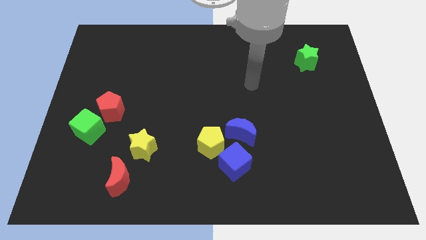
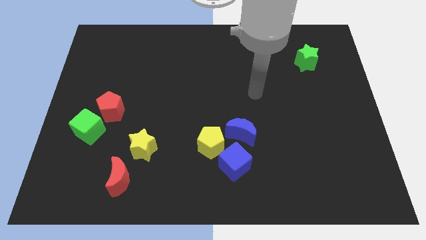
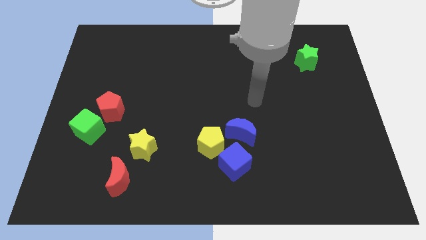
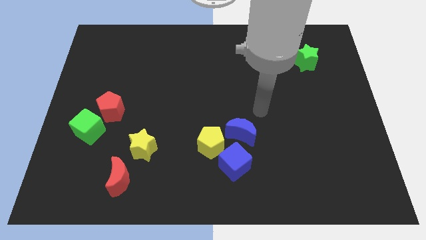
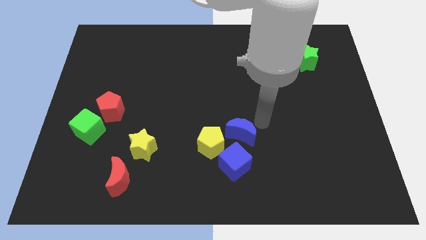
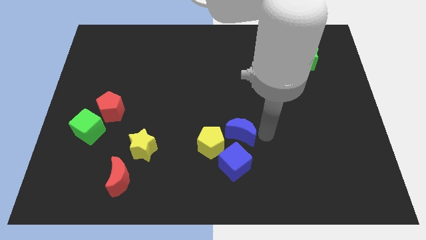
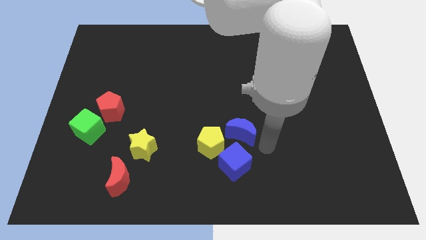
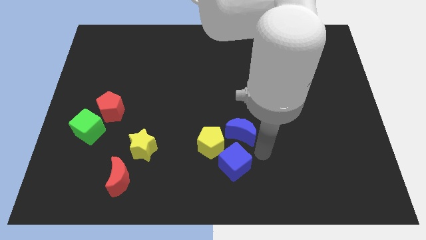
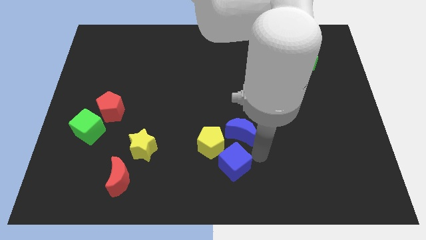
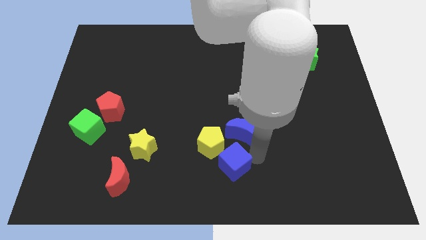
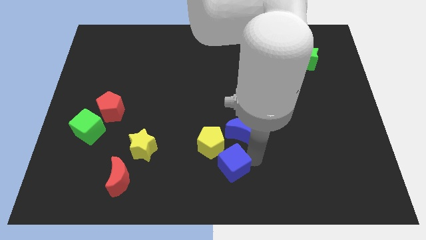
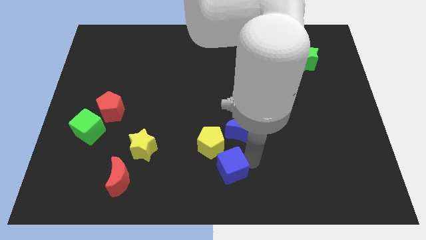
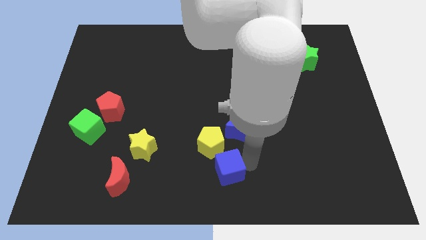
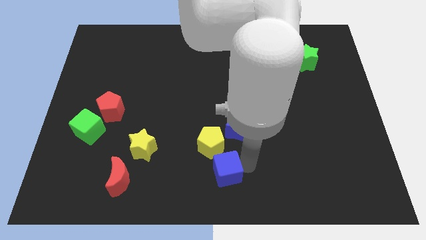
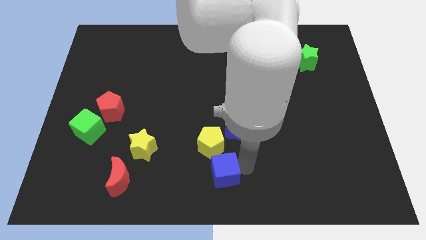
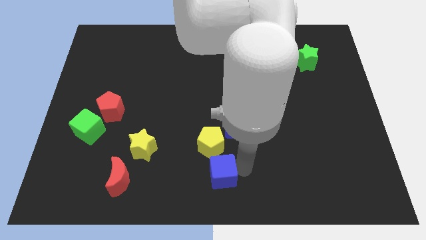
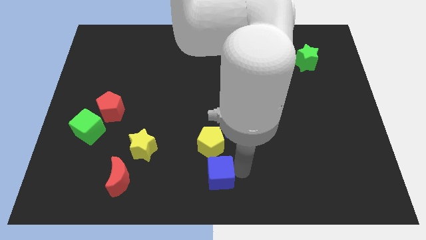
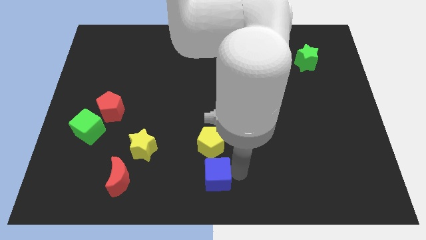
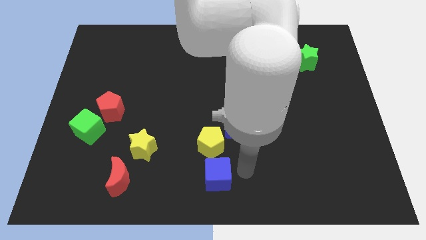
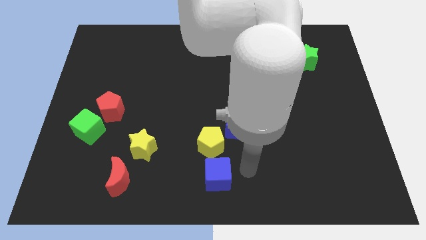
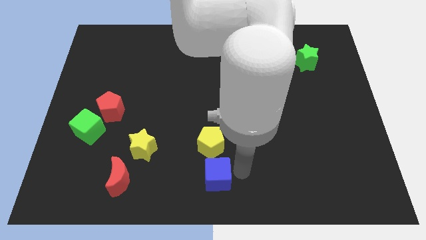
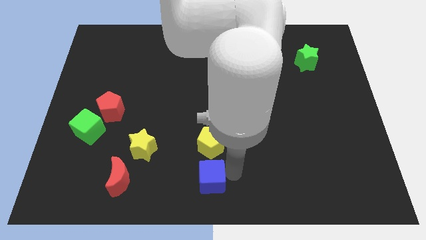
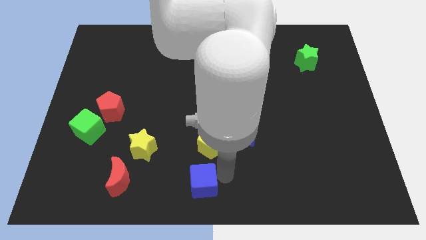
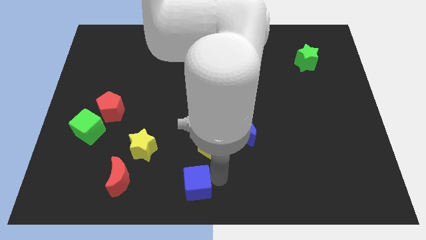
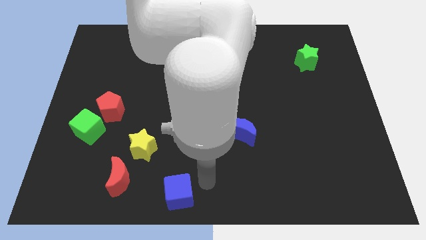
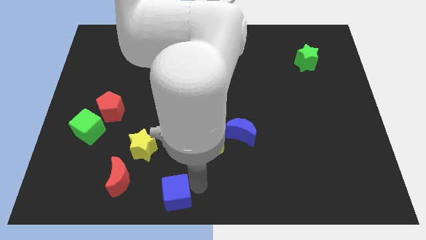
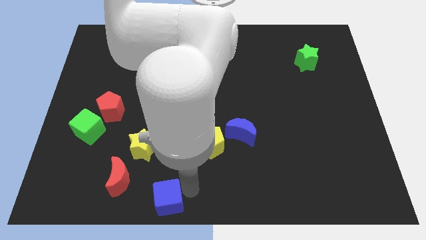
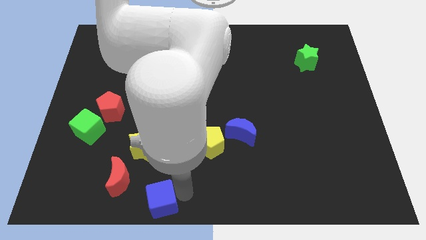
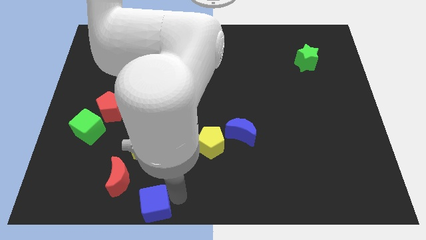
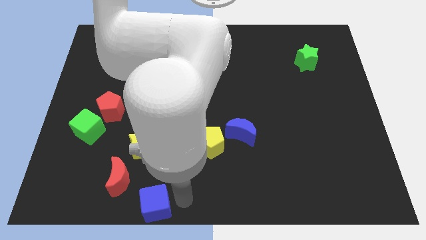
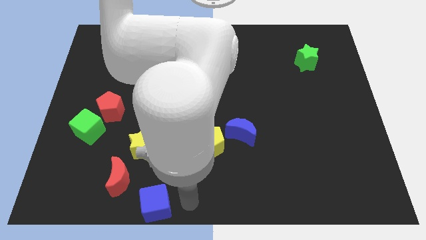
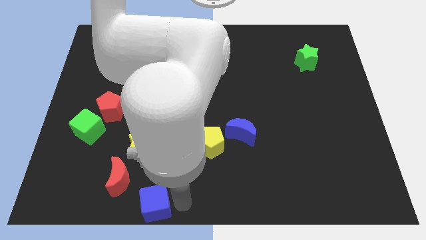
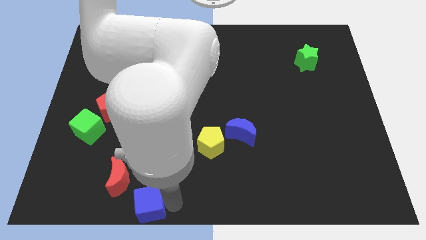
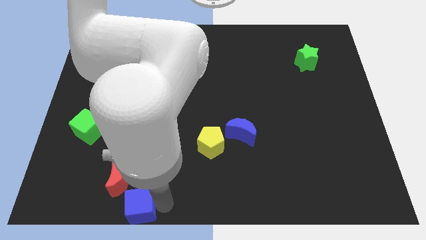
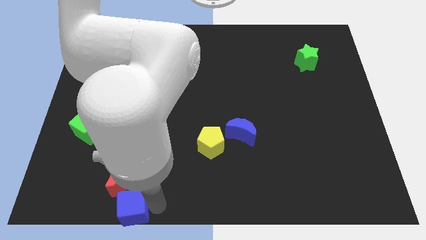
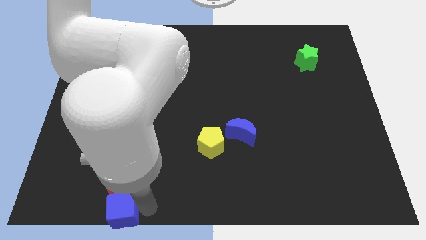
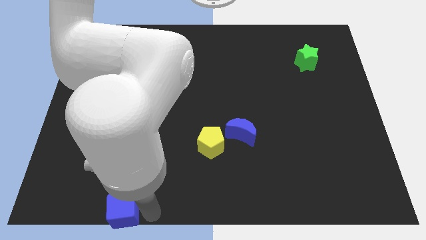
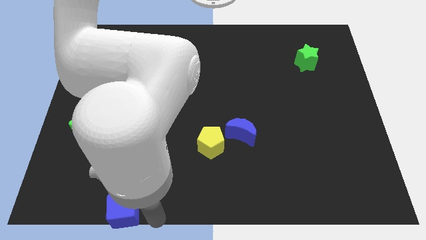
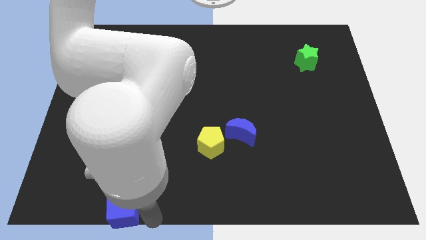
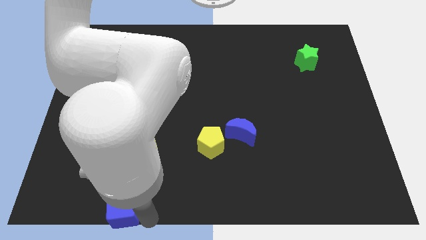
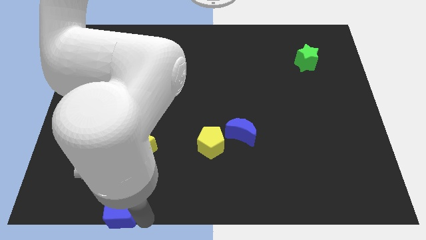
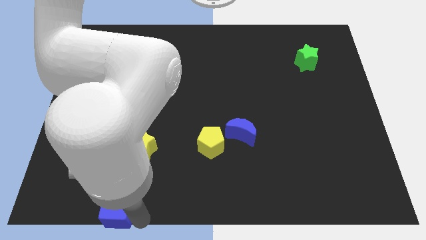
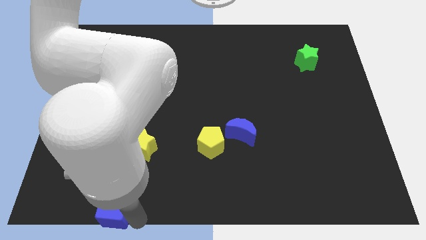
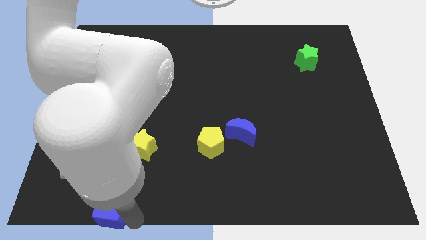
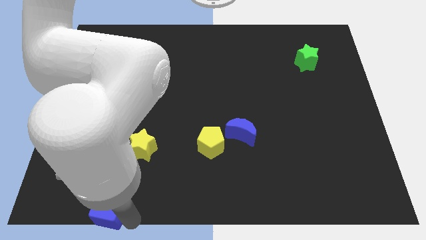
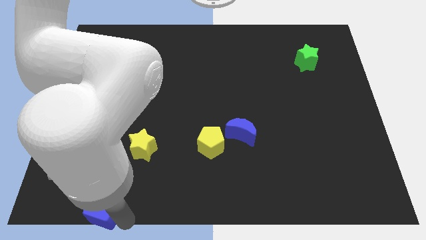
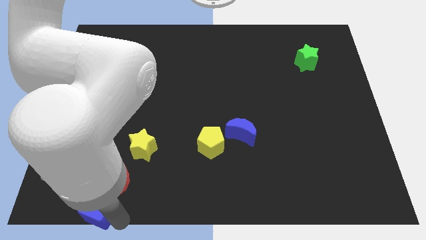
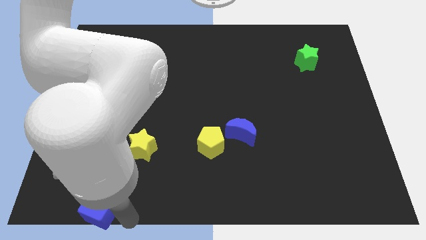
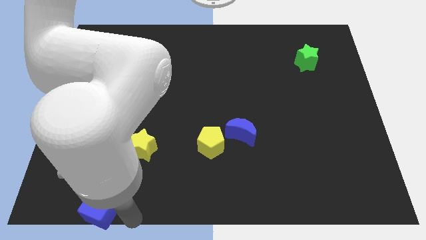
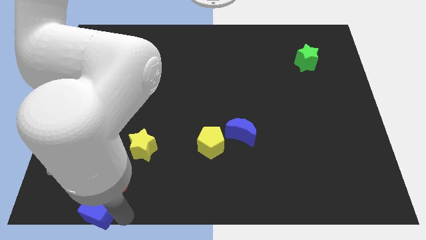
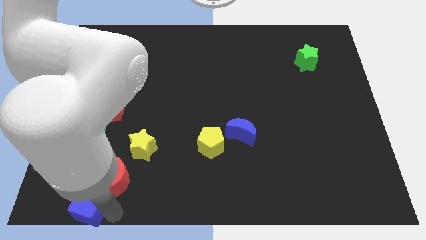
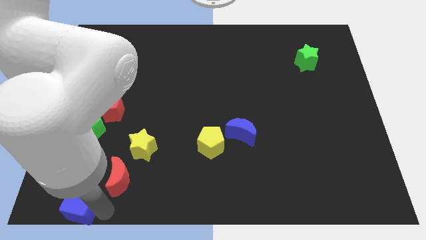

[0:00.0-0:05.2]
slide the blue cube to the bottom left of the board

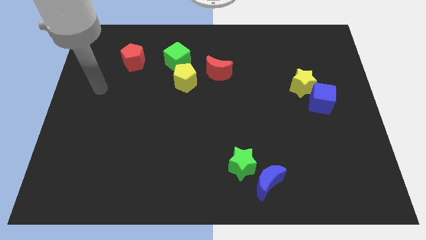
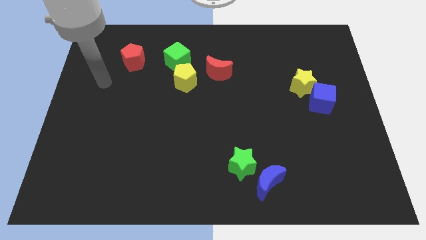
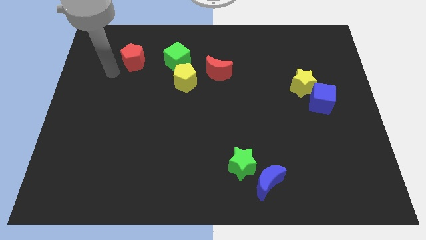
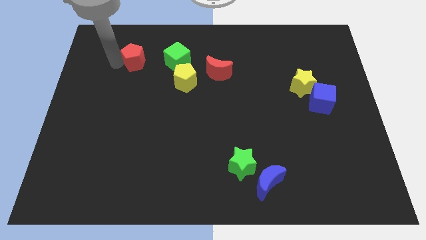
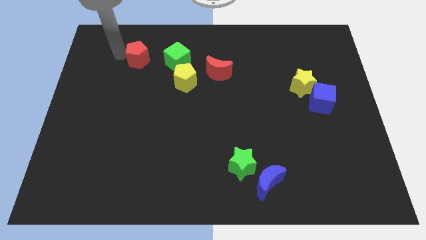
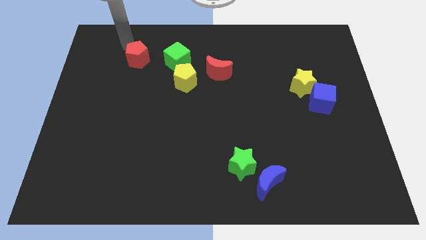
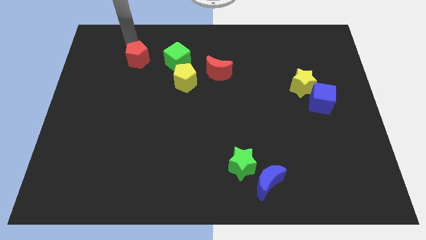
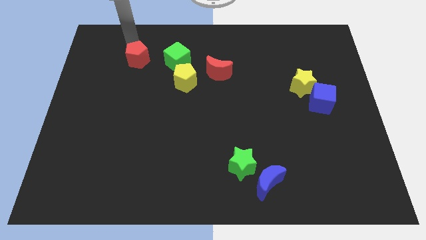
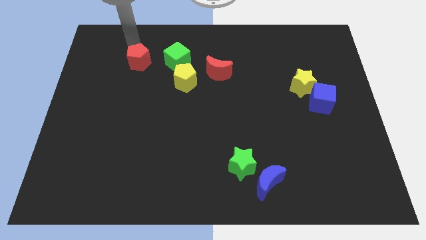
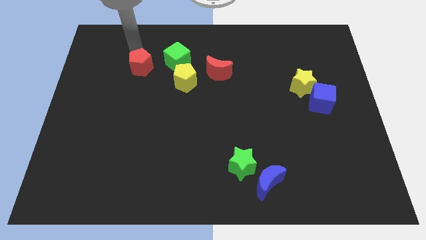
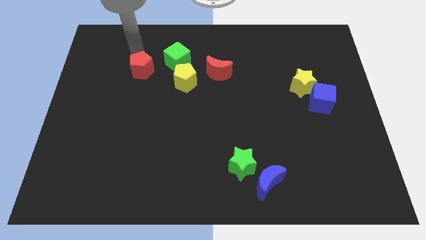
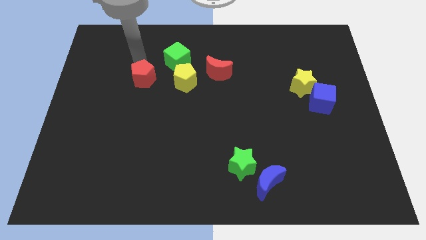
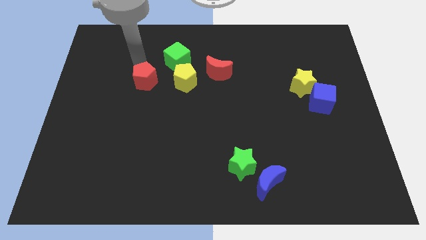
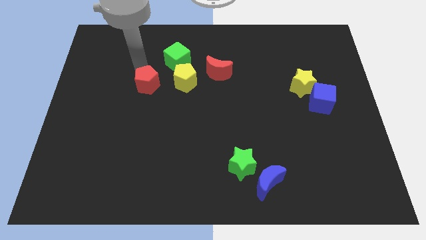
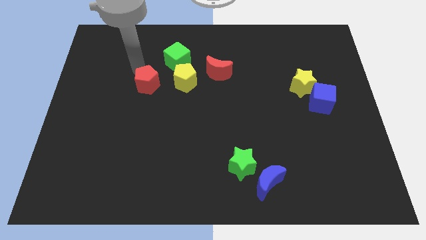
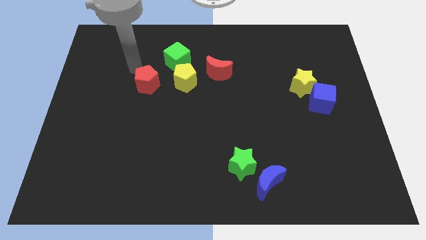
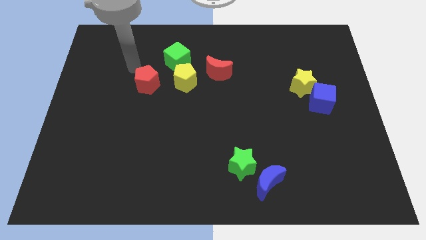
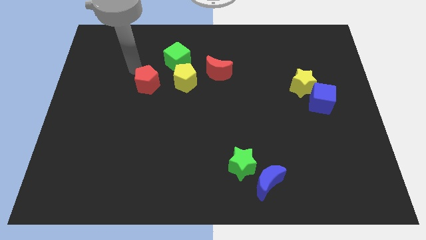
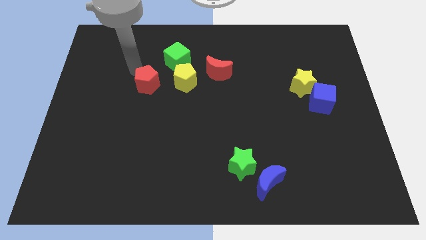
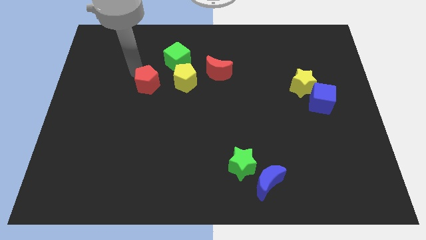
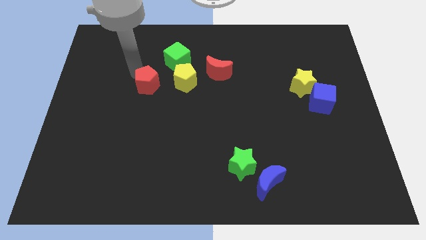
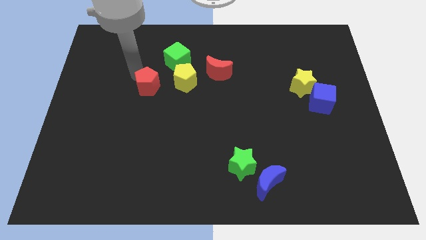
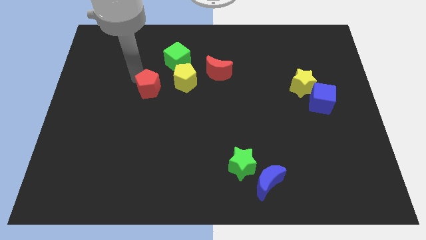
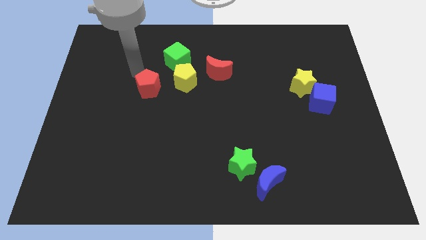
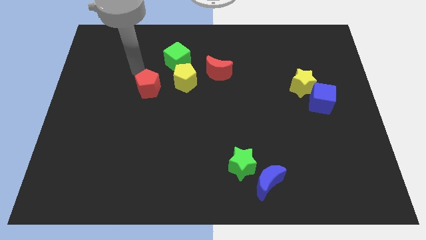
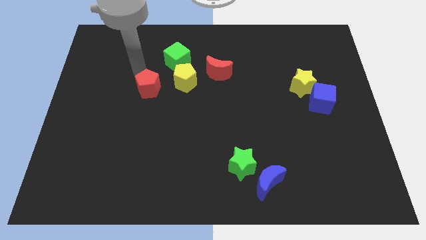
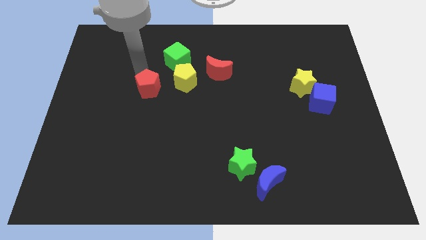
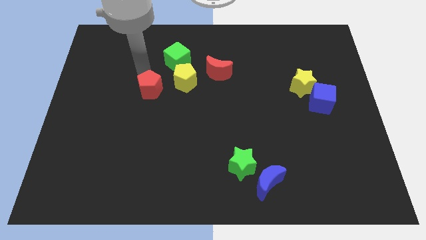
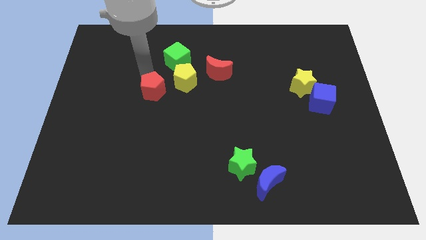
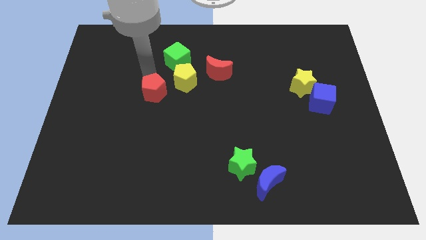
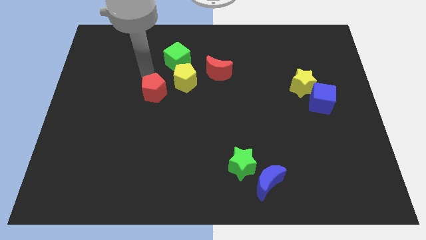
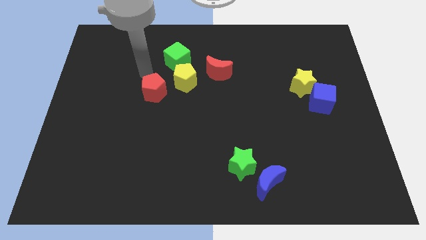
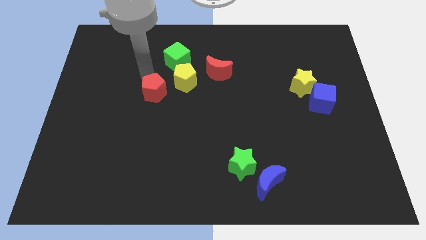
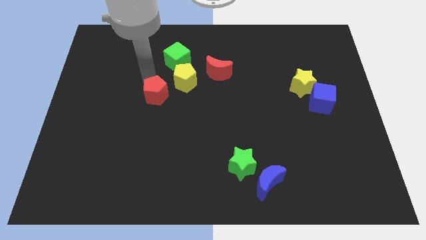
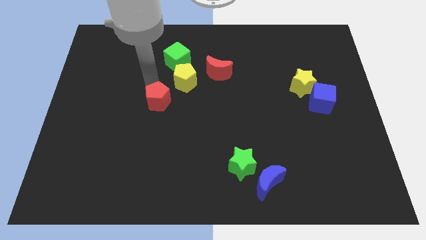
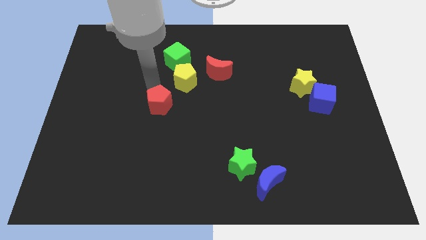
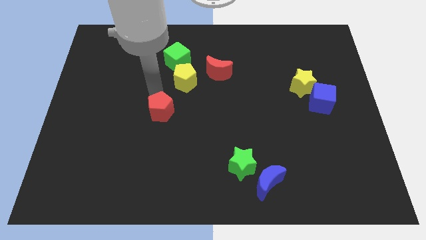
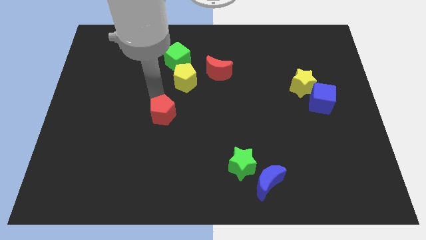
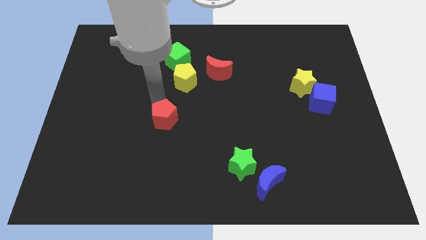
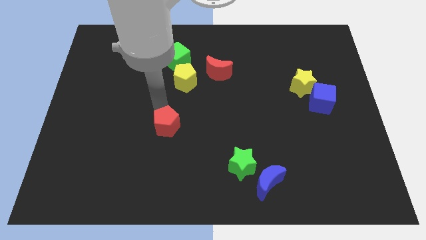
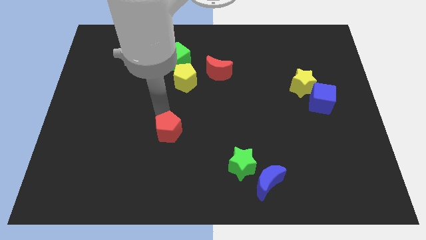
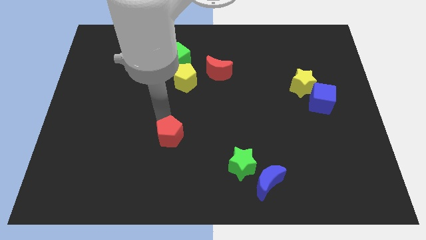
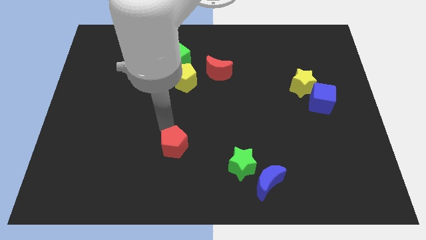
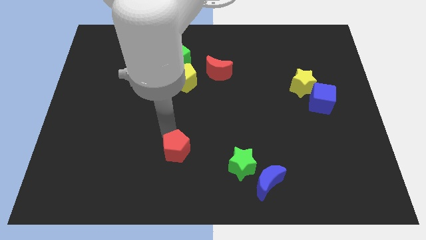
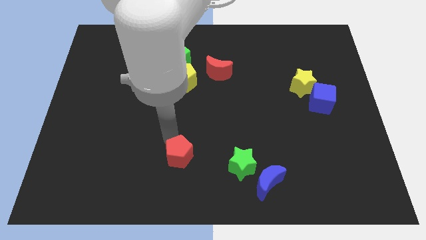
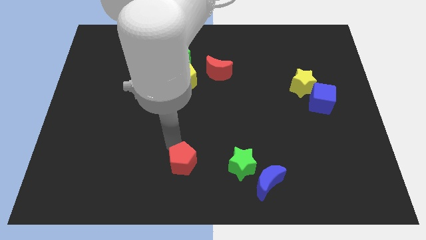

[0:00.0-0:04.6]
move the red pentagon to the bottom
